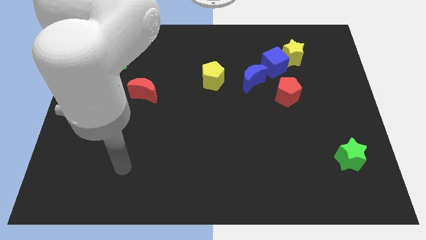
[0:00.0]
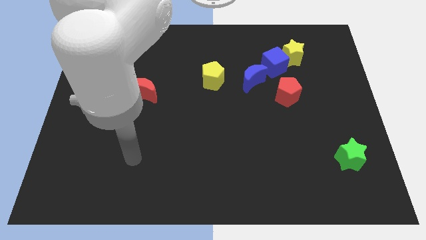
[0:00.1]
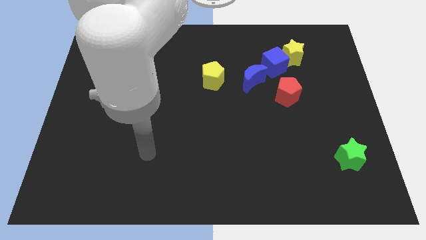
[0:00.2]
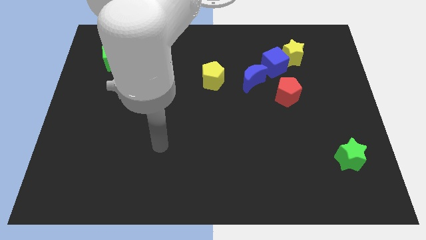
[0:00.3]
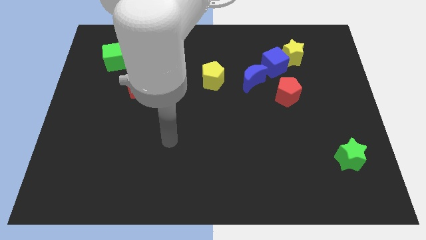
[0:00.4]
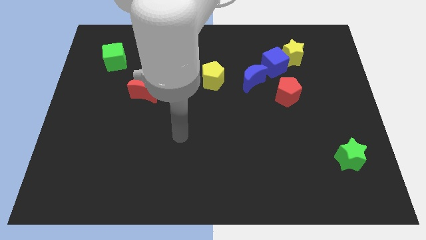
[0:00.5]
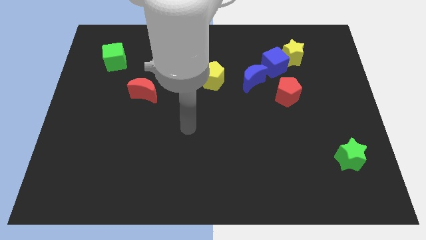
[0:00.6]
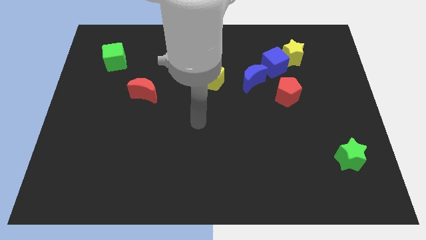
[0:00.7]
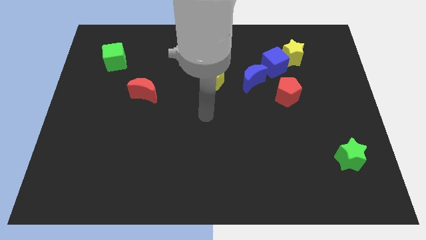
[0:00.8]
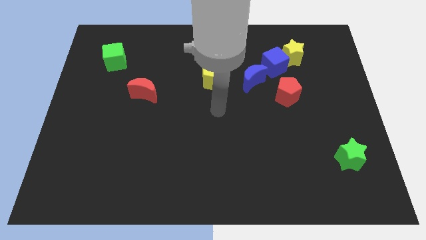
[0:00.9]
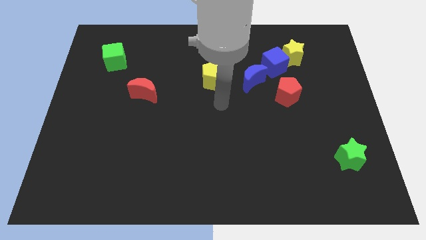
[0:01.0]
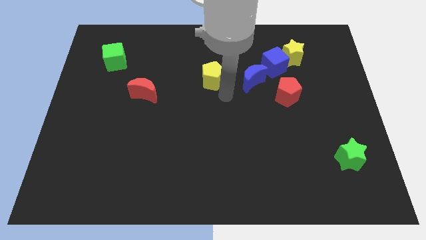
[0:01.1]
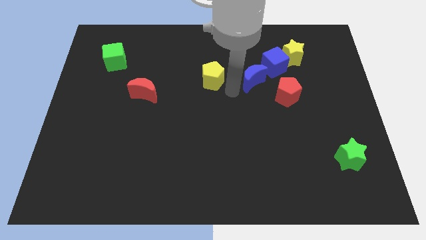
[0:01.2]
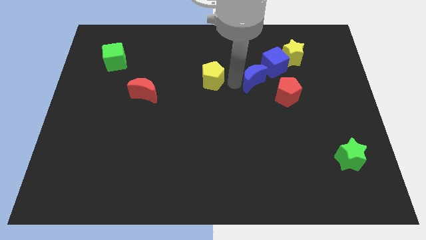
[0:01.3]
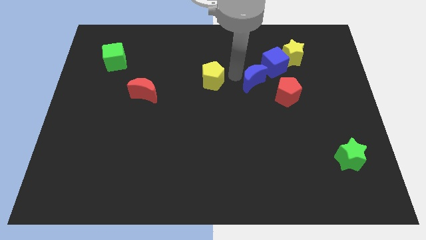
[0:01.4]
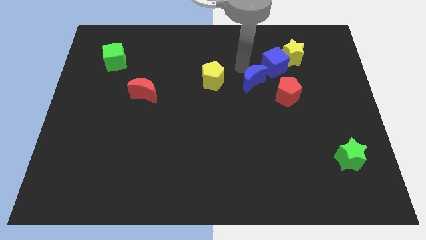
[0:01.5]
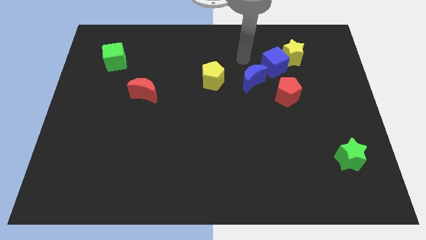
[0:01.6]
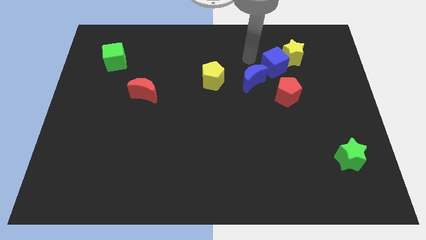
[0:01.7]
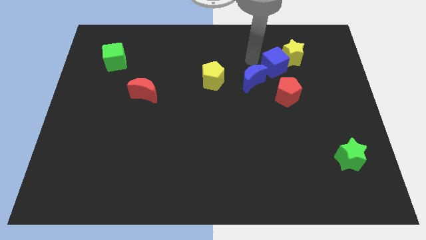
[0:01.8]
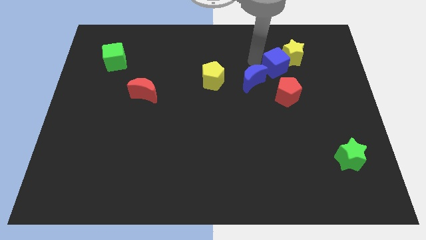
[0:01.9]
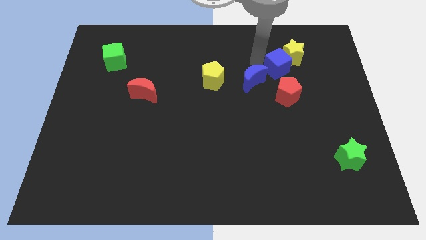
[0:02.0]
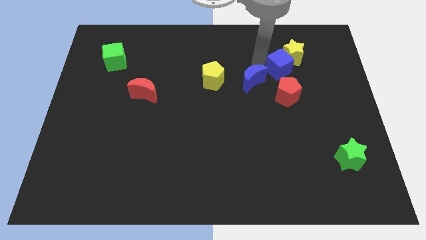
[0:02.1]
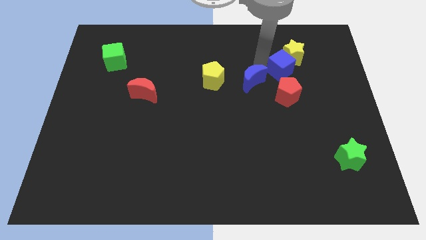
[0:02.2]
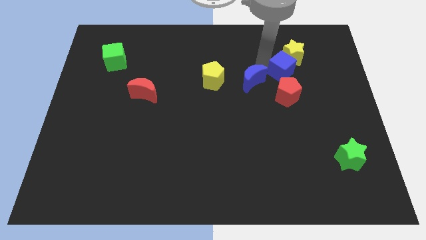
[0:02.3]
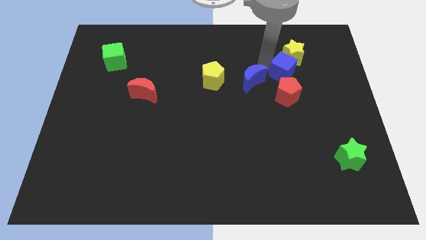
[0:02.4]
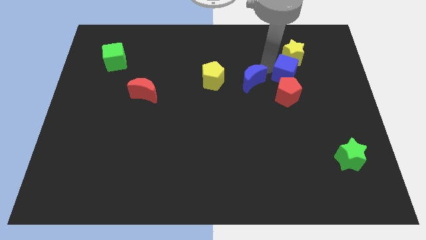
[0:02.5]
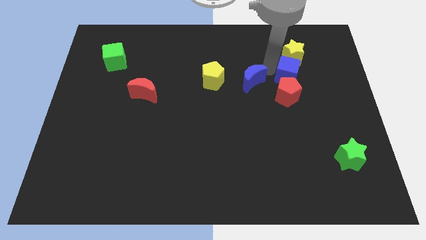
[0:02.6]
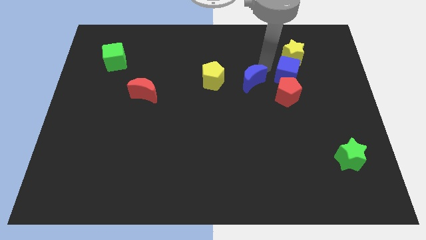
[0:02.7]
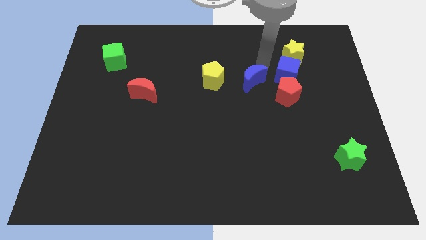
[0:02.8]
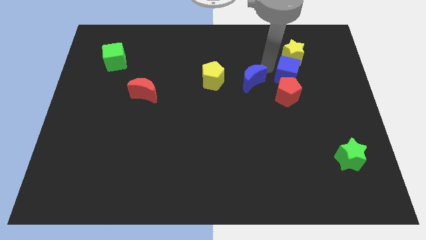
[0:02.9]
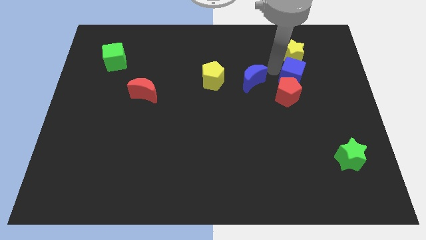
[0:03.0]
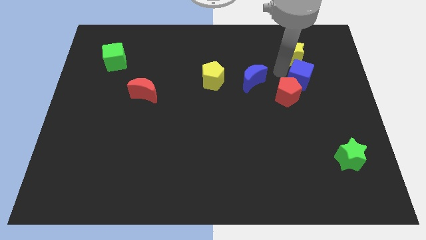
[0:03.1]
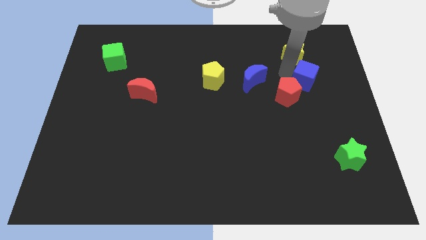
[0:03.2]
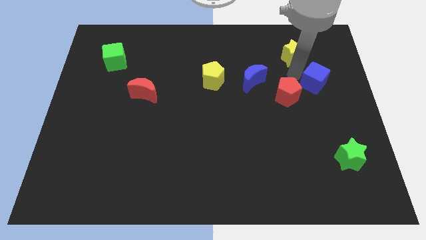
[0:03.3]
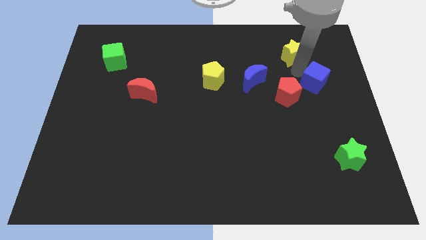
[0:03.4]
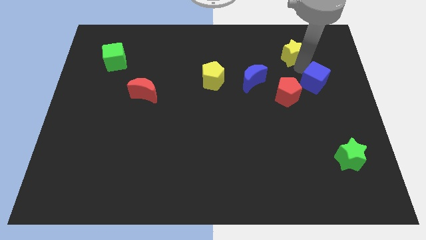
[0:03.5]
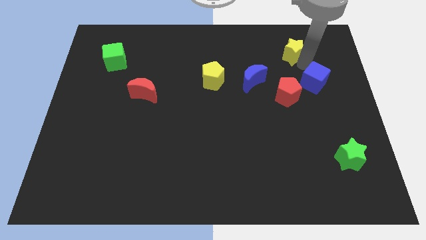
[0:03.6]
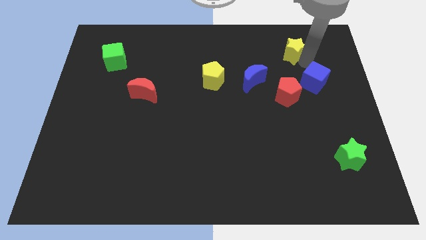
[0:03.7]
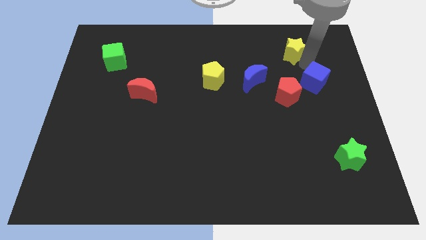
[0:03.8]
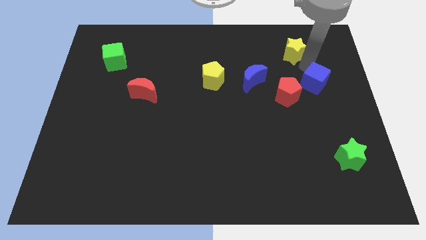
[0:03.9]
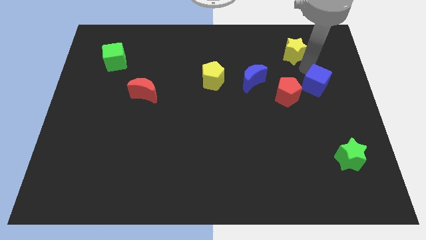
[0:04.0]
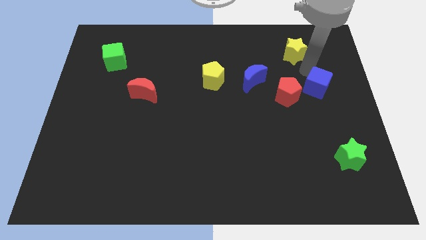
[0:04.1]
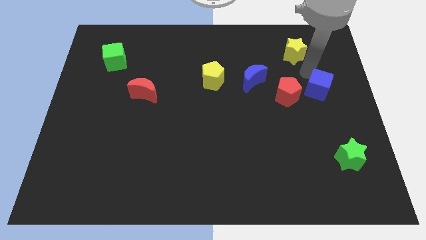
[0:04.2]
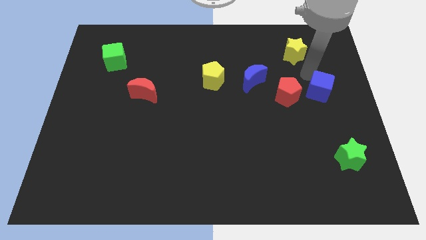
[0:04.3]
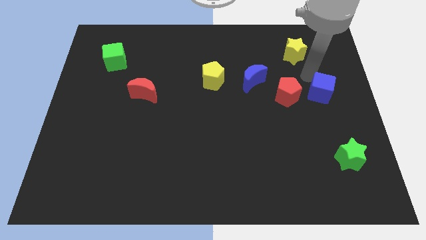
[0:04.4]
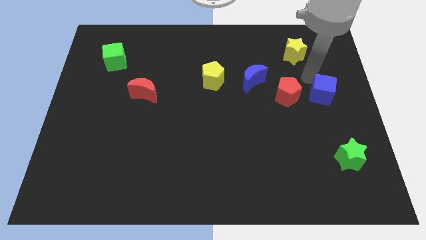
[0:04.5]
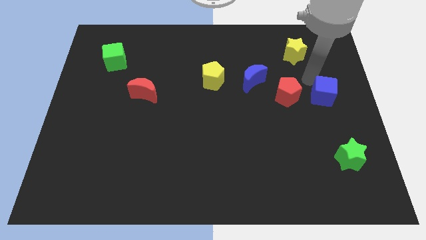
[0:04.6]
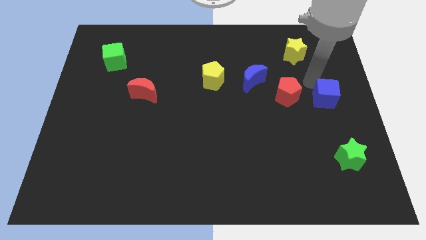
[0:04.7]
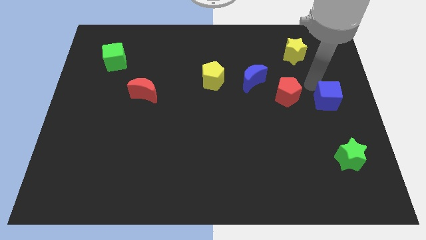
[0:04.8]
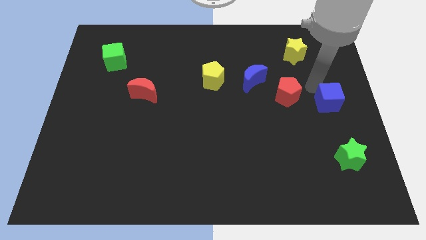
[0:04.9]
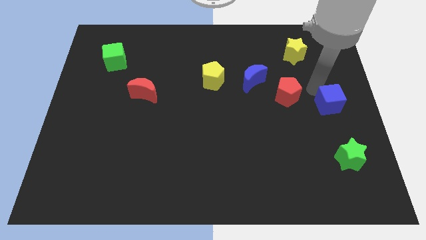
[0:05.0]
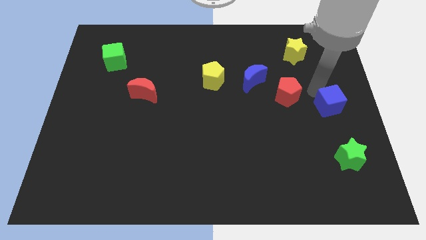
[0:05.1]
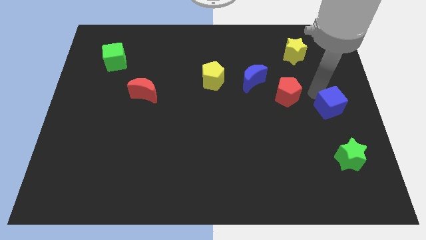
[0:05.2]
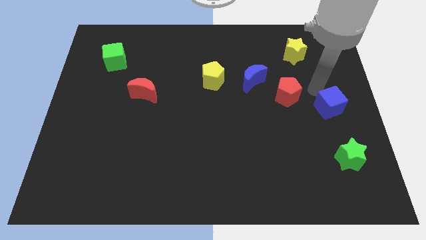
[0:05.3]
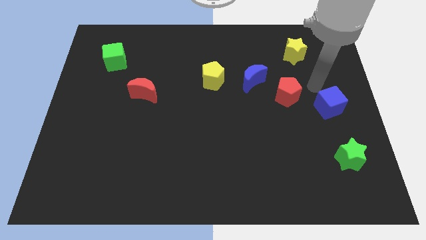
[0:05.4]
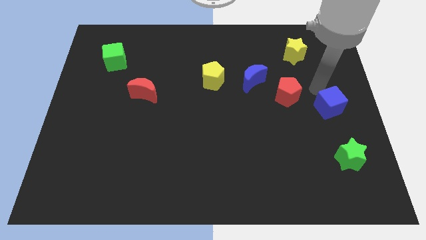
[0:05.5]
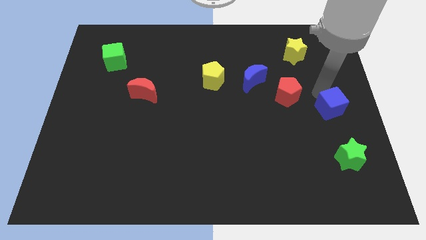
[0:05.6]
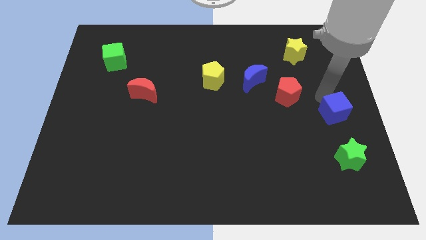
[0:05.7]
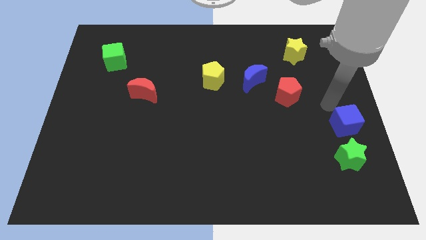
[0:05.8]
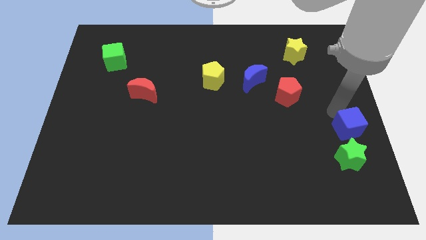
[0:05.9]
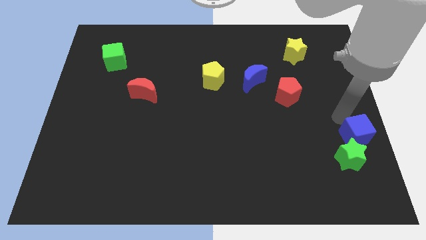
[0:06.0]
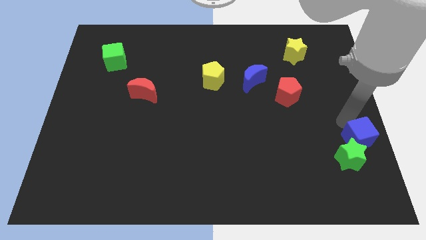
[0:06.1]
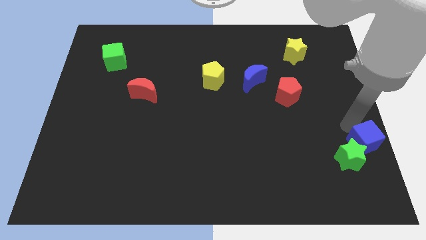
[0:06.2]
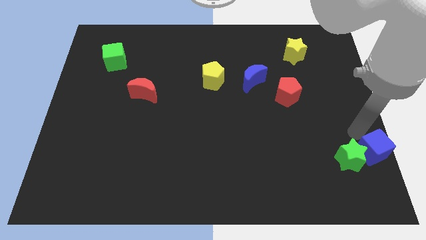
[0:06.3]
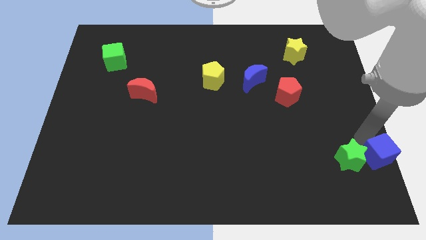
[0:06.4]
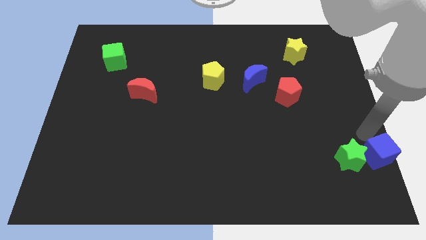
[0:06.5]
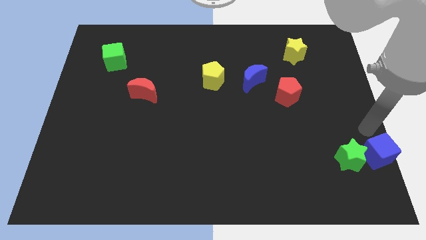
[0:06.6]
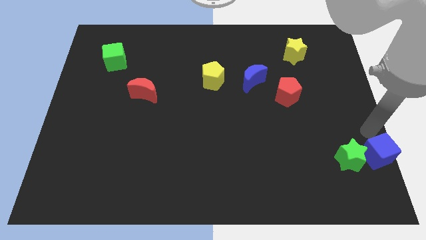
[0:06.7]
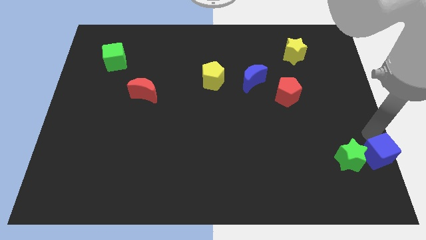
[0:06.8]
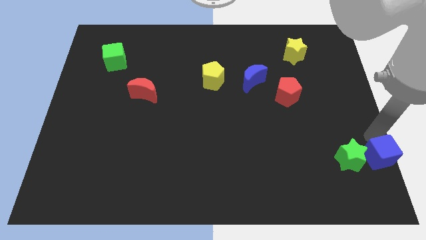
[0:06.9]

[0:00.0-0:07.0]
push the blue cube to the bottom right
